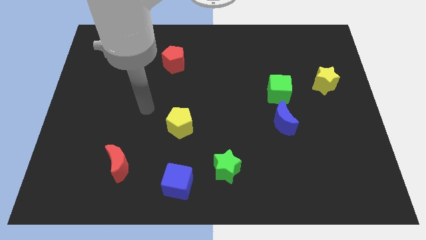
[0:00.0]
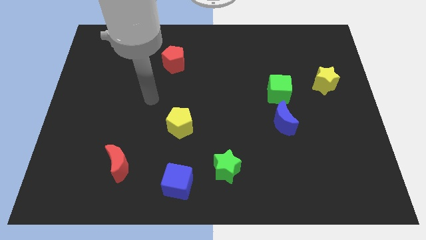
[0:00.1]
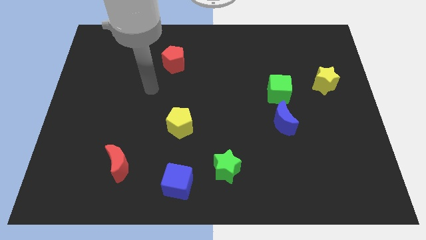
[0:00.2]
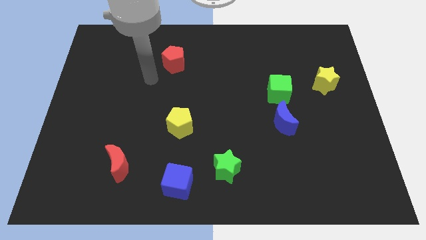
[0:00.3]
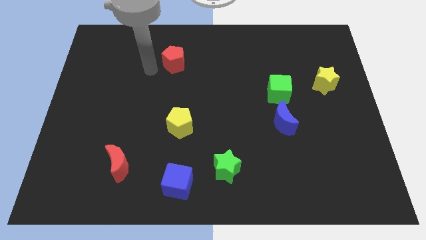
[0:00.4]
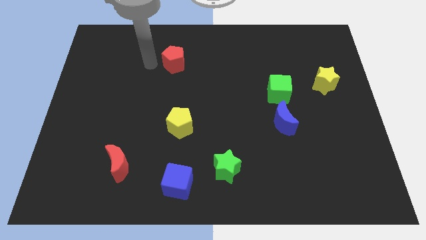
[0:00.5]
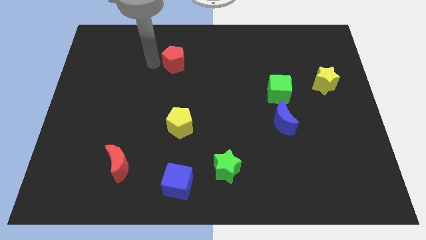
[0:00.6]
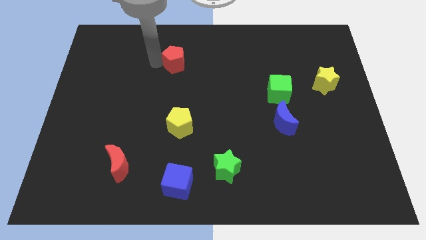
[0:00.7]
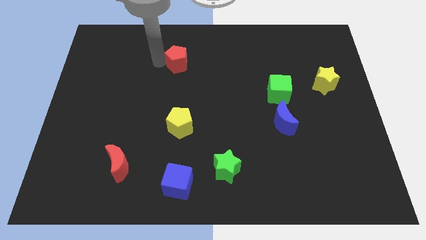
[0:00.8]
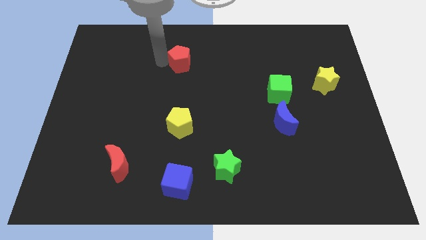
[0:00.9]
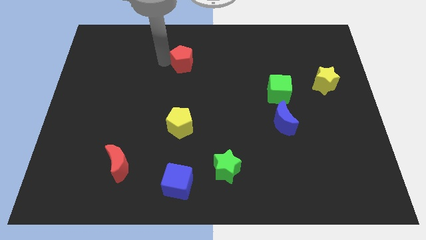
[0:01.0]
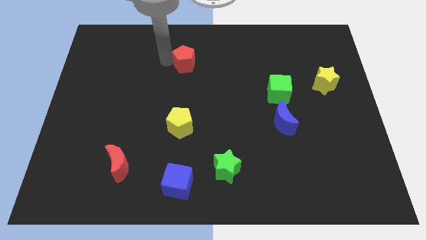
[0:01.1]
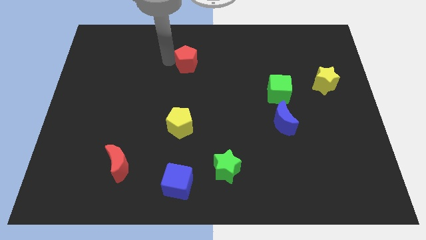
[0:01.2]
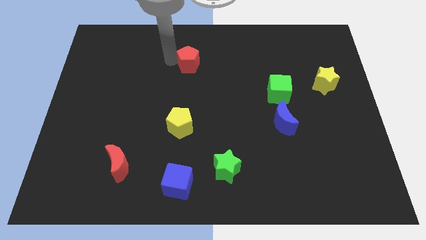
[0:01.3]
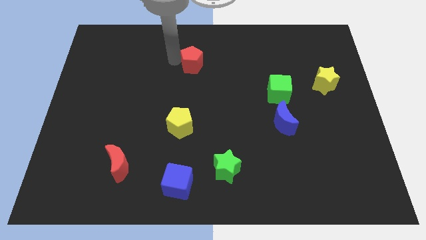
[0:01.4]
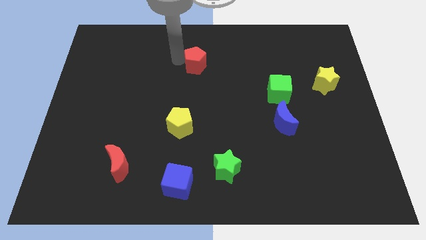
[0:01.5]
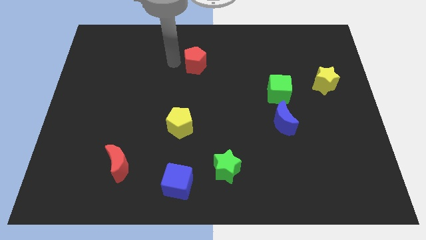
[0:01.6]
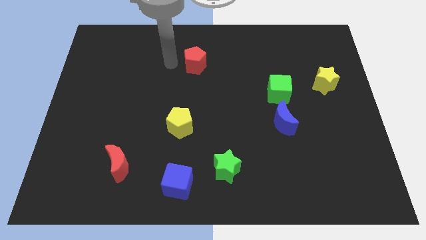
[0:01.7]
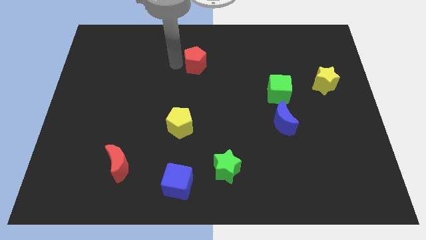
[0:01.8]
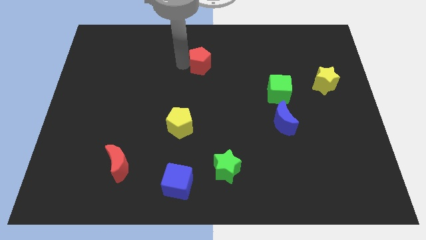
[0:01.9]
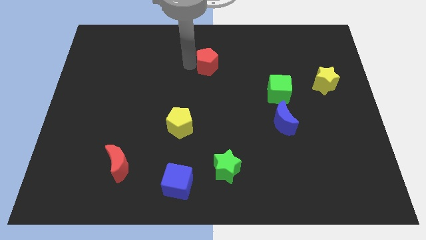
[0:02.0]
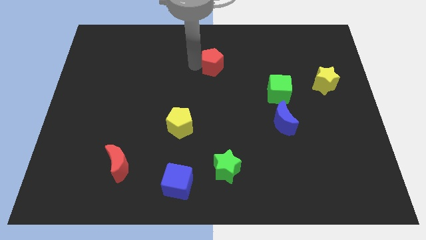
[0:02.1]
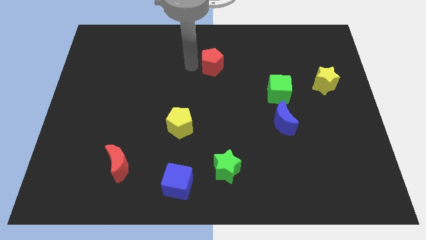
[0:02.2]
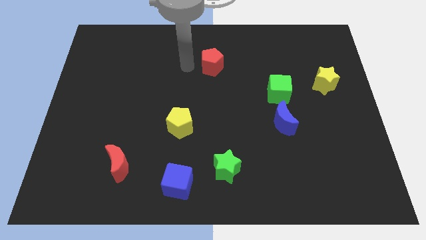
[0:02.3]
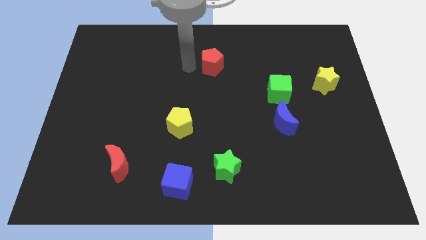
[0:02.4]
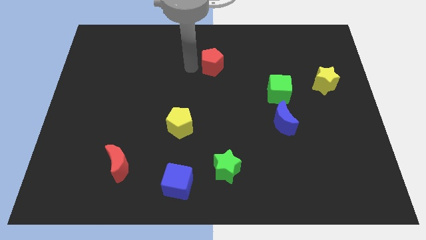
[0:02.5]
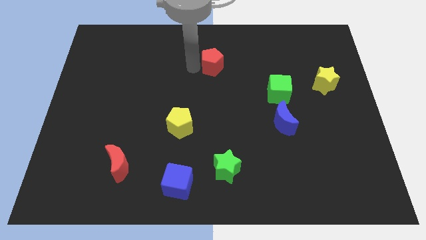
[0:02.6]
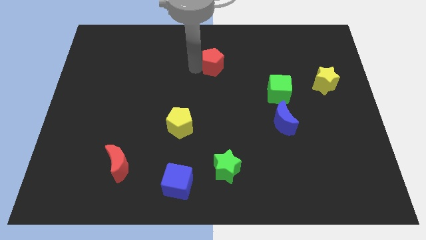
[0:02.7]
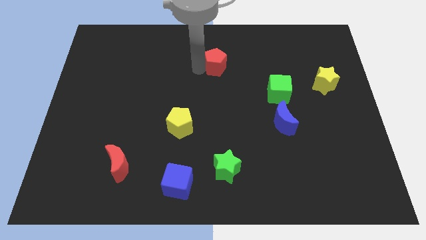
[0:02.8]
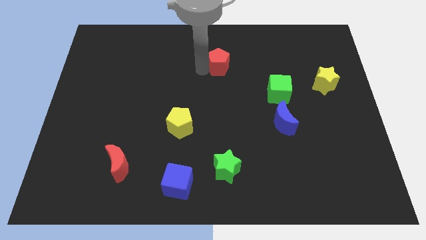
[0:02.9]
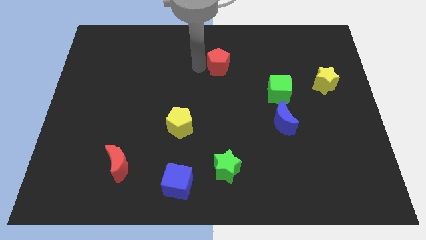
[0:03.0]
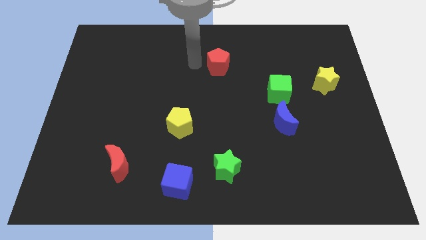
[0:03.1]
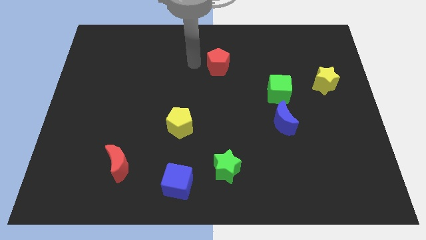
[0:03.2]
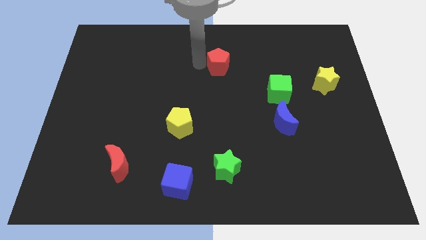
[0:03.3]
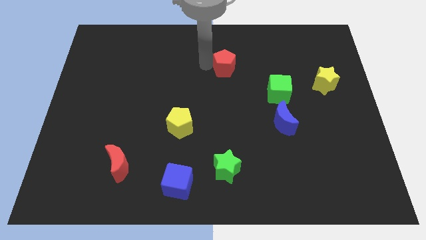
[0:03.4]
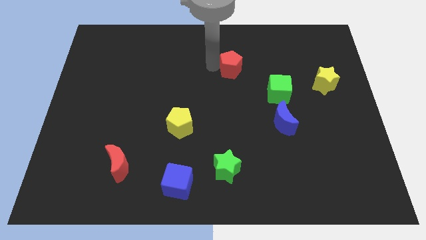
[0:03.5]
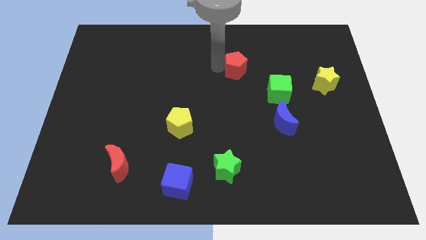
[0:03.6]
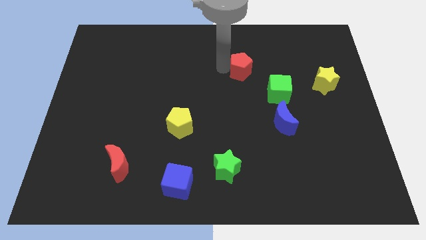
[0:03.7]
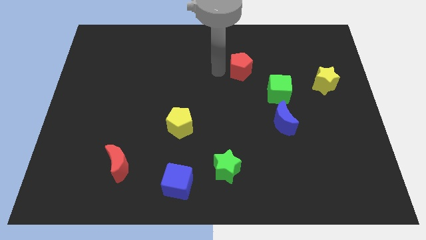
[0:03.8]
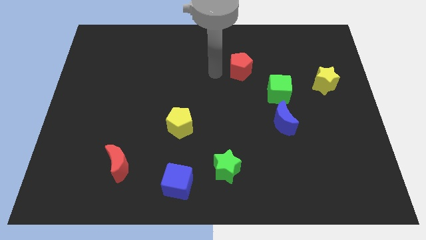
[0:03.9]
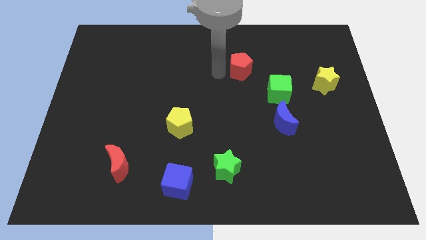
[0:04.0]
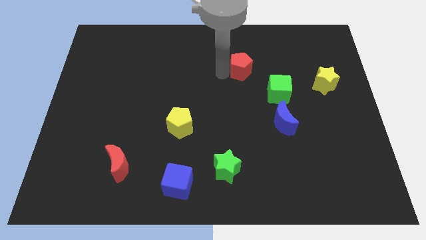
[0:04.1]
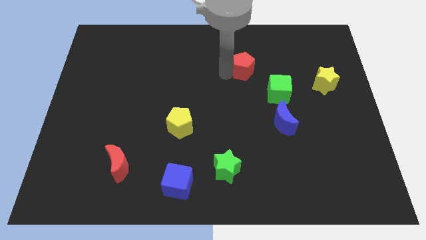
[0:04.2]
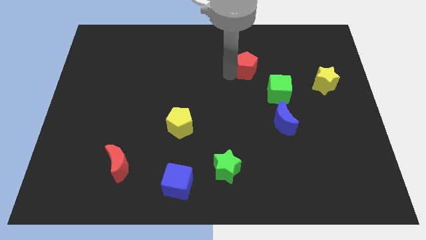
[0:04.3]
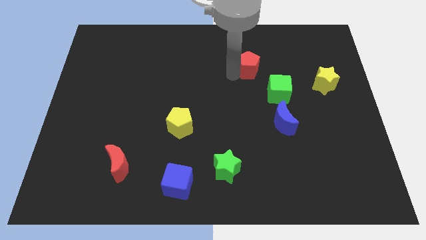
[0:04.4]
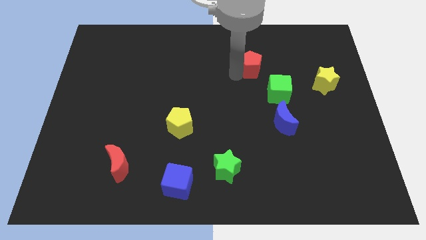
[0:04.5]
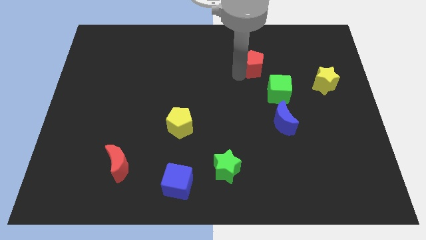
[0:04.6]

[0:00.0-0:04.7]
slide the red pentagon to the right

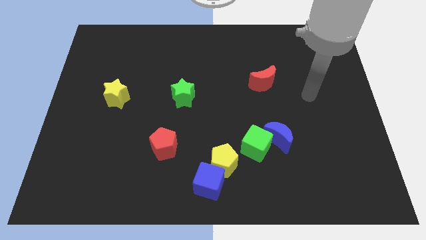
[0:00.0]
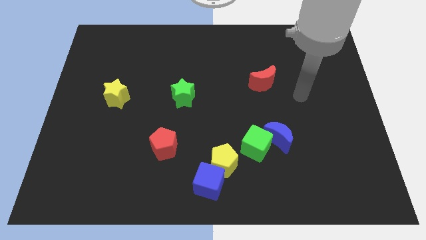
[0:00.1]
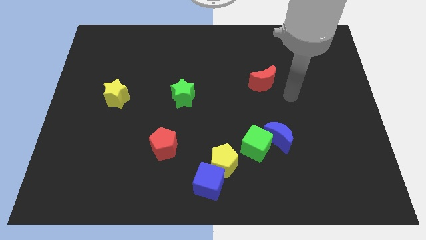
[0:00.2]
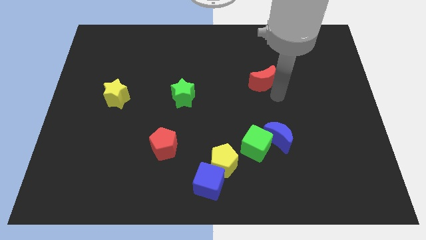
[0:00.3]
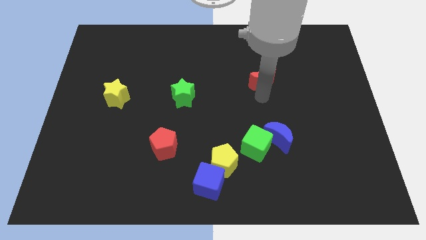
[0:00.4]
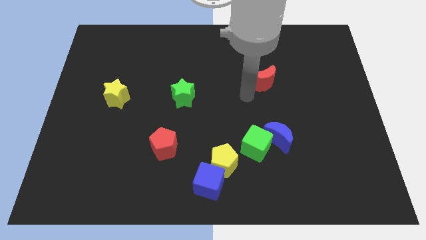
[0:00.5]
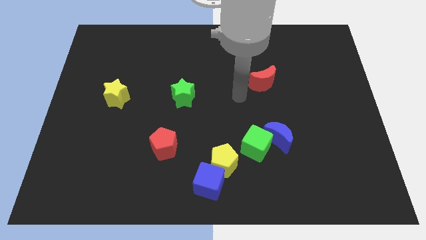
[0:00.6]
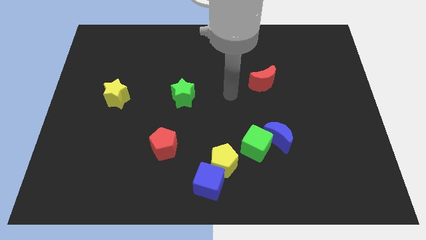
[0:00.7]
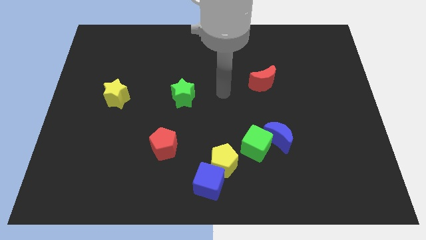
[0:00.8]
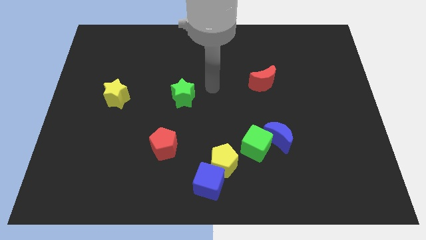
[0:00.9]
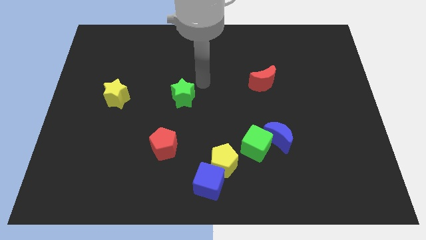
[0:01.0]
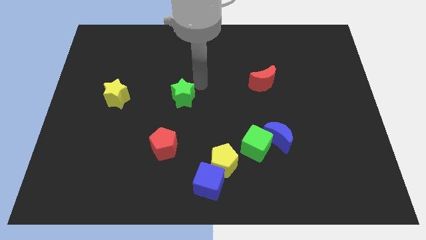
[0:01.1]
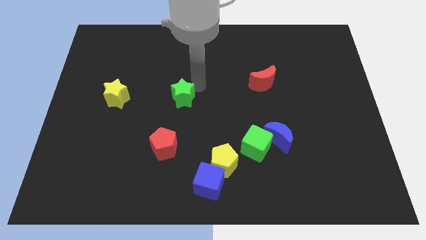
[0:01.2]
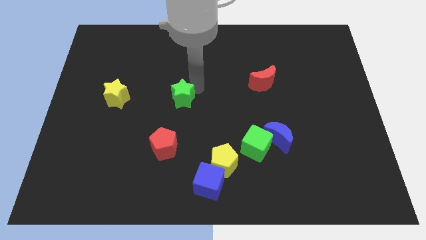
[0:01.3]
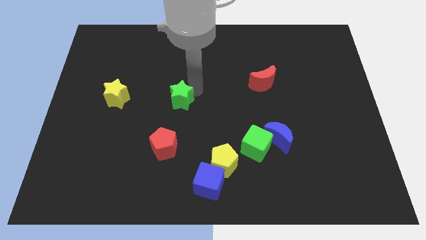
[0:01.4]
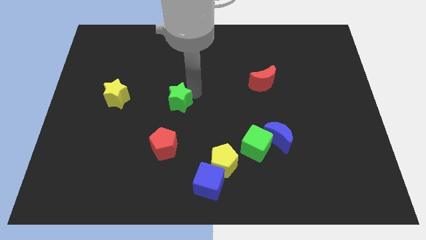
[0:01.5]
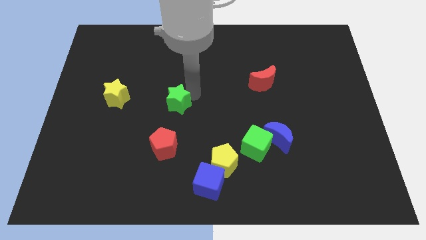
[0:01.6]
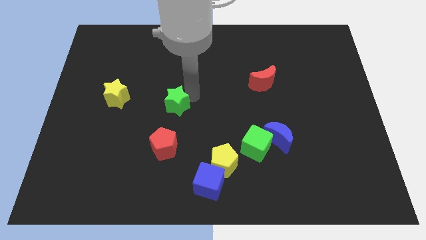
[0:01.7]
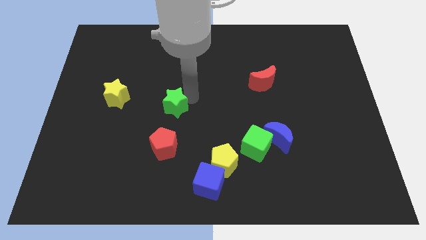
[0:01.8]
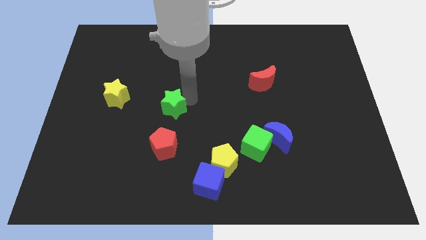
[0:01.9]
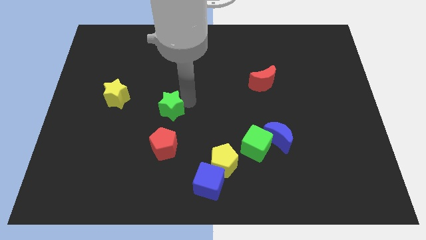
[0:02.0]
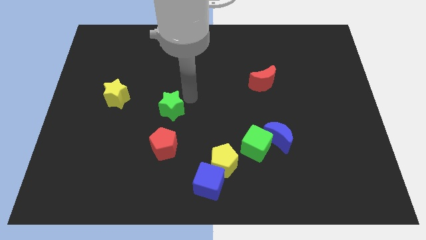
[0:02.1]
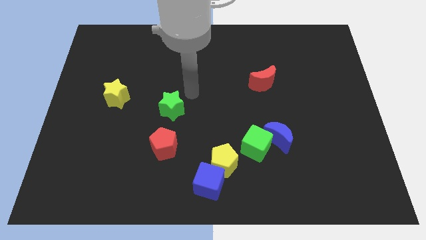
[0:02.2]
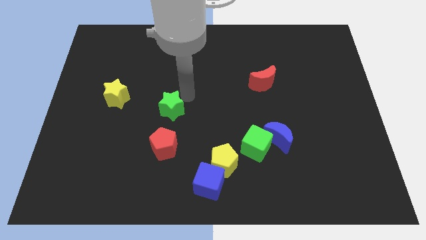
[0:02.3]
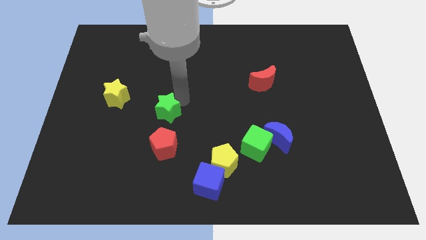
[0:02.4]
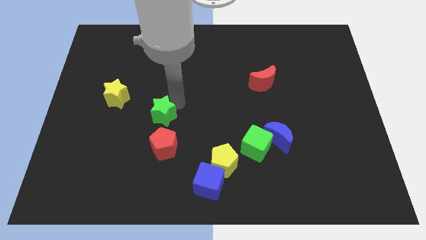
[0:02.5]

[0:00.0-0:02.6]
move the green star down and to the left a little bit

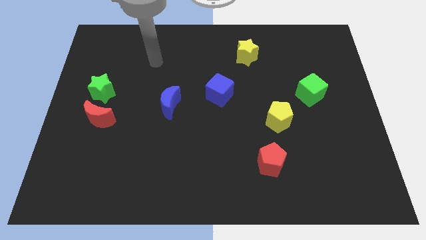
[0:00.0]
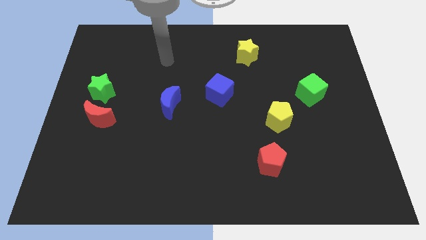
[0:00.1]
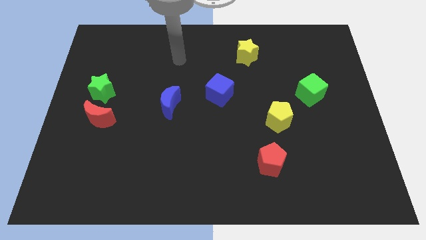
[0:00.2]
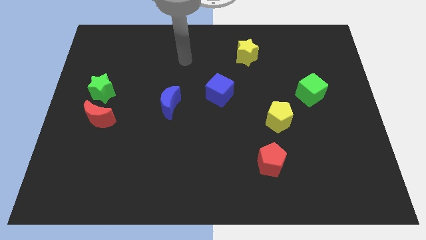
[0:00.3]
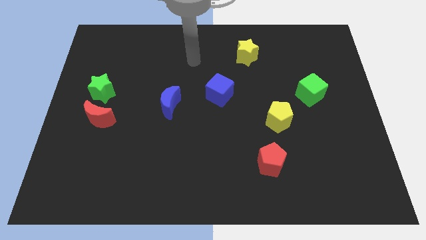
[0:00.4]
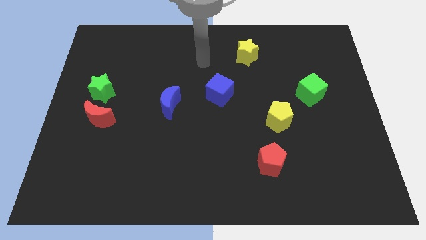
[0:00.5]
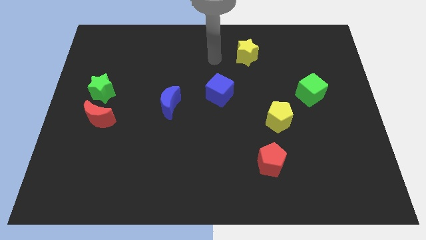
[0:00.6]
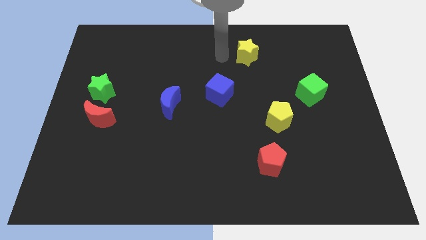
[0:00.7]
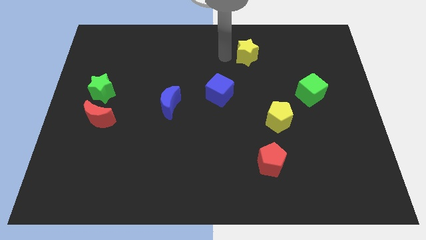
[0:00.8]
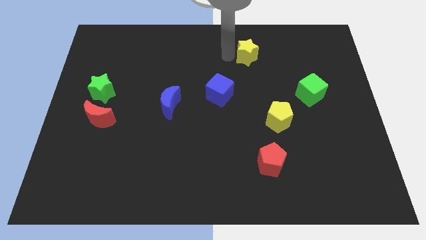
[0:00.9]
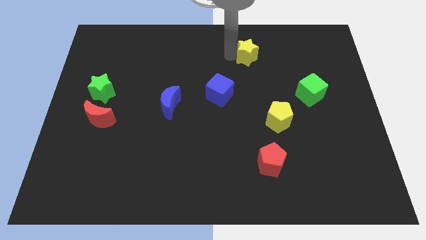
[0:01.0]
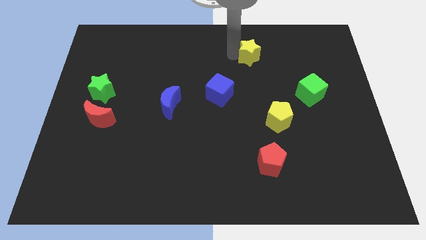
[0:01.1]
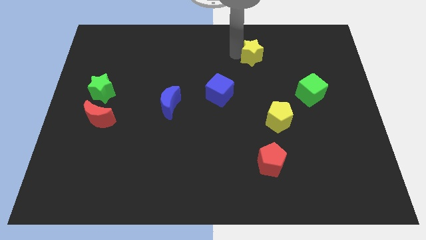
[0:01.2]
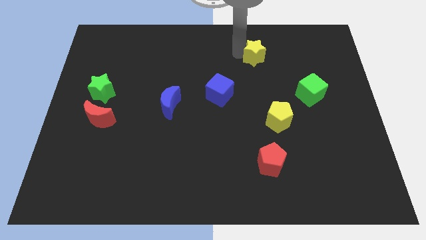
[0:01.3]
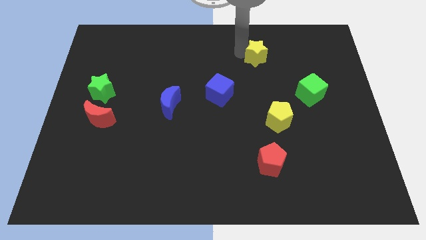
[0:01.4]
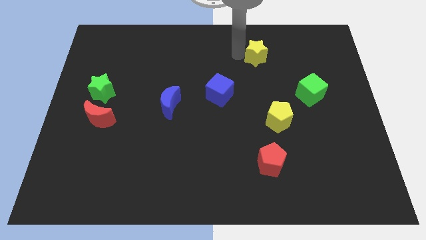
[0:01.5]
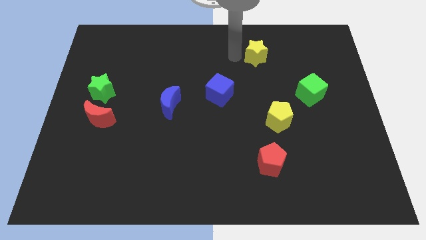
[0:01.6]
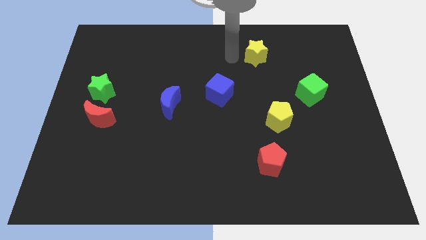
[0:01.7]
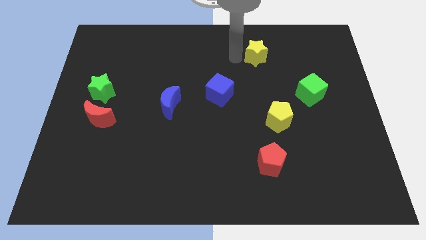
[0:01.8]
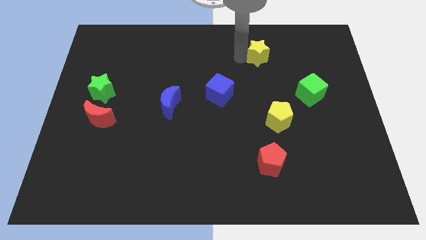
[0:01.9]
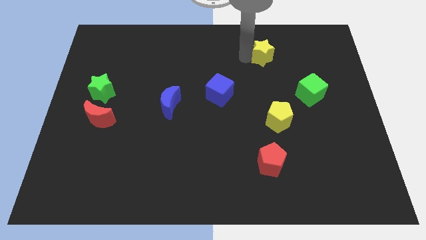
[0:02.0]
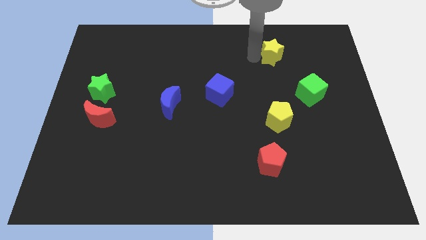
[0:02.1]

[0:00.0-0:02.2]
slide the yellow star to the right a little
